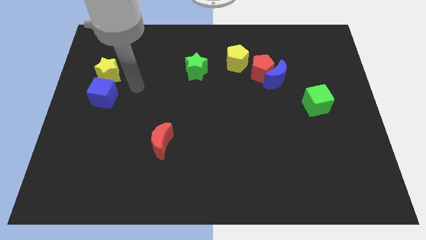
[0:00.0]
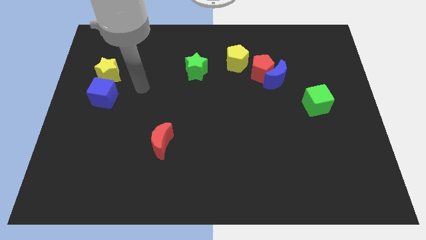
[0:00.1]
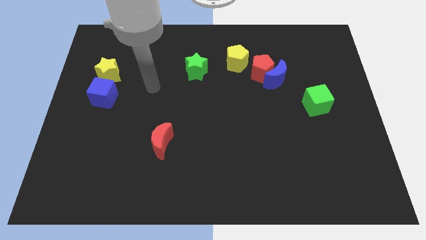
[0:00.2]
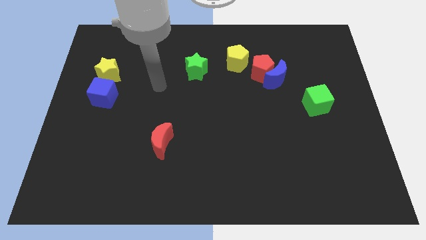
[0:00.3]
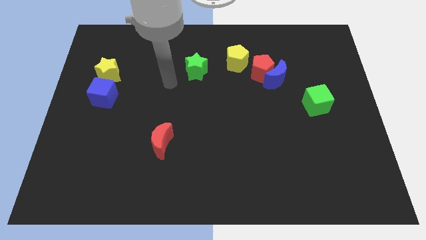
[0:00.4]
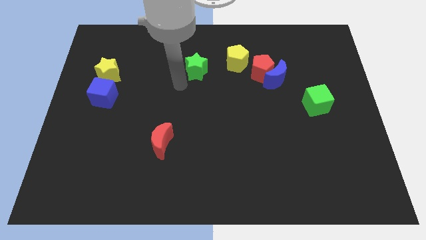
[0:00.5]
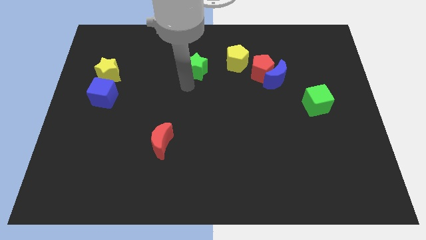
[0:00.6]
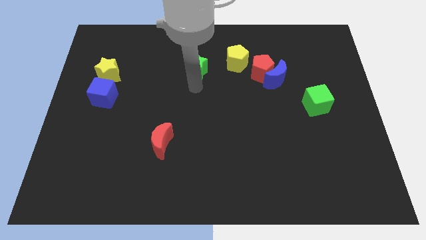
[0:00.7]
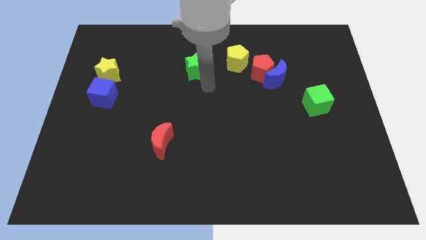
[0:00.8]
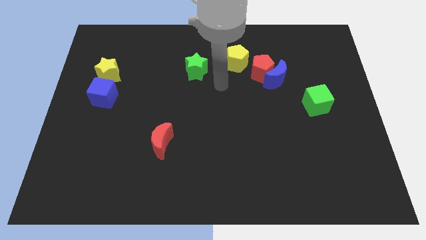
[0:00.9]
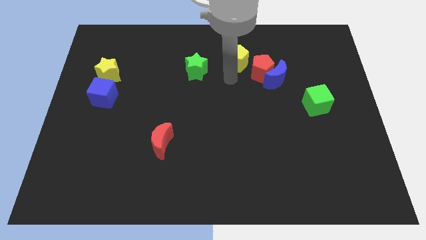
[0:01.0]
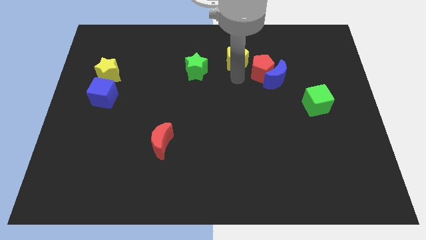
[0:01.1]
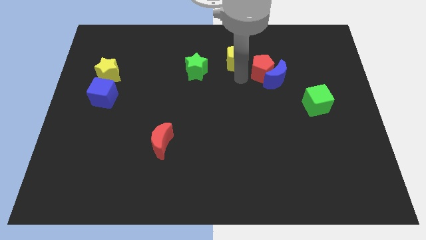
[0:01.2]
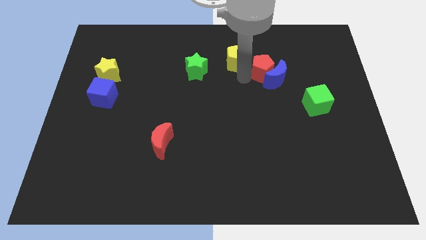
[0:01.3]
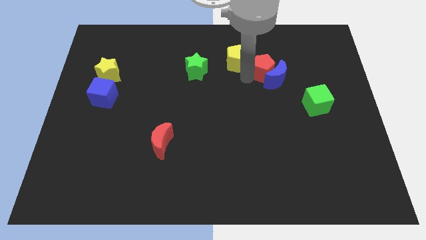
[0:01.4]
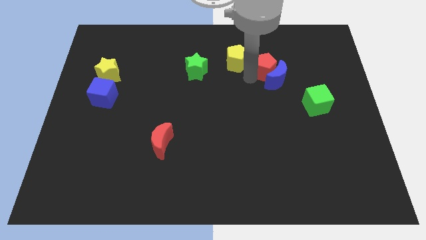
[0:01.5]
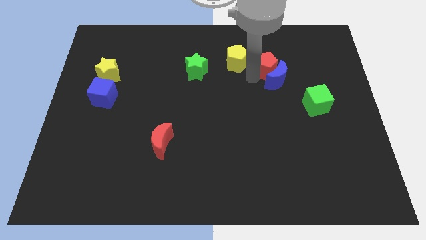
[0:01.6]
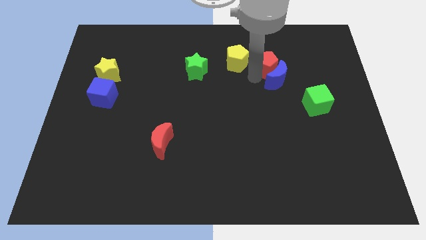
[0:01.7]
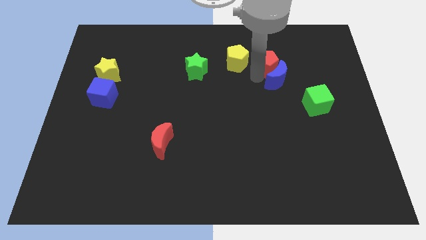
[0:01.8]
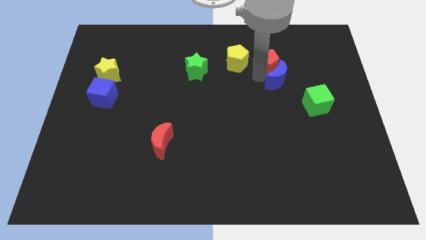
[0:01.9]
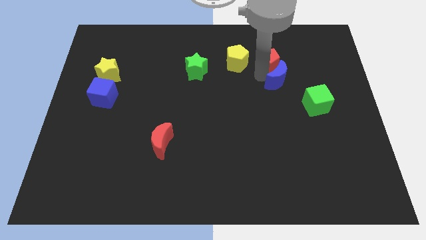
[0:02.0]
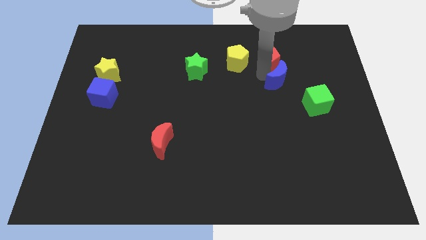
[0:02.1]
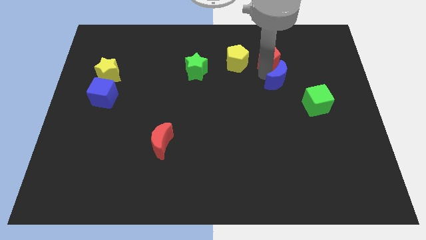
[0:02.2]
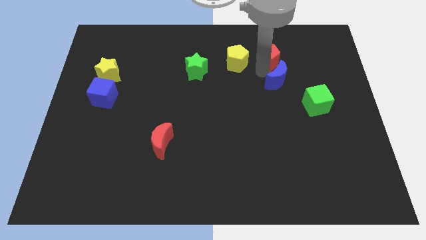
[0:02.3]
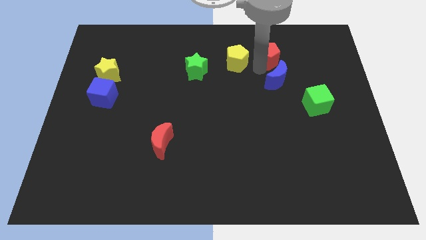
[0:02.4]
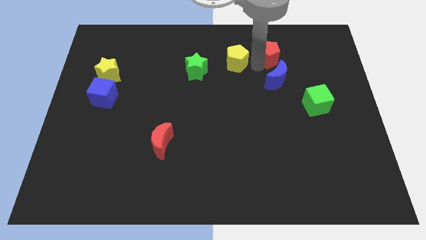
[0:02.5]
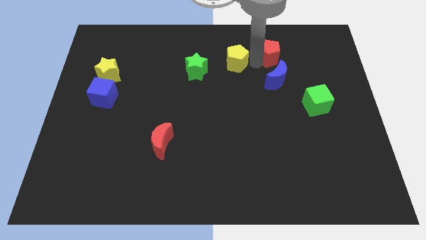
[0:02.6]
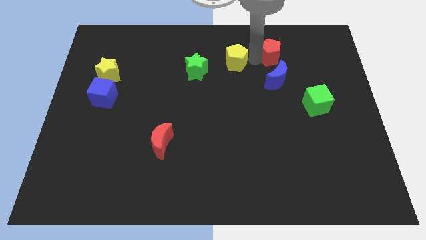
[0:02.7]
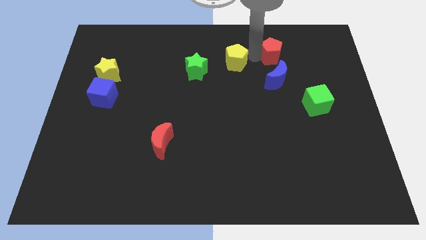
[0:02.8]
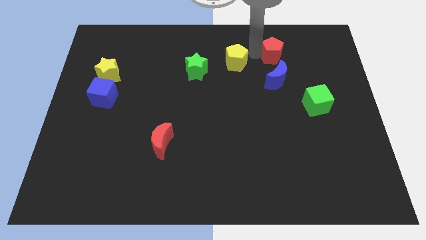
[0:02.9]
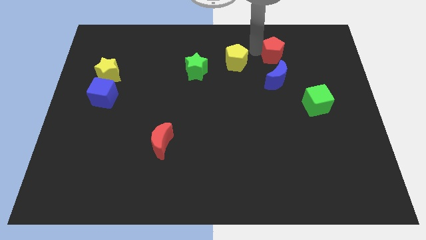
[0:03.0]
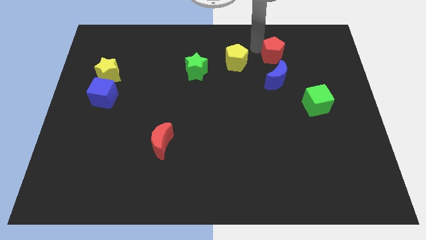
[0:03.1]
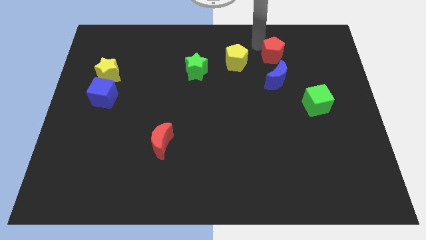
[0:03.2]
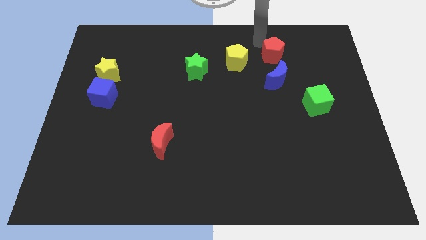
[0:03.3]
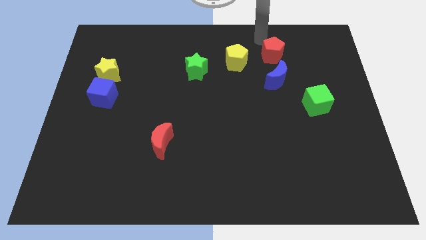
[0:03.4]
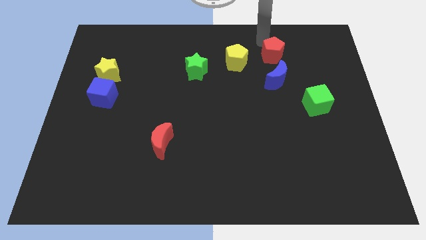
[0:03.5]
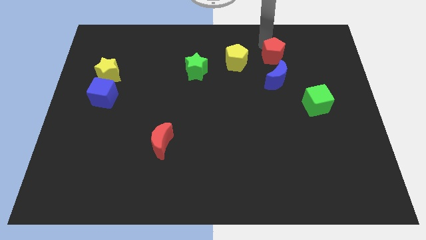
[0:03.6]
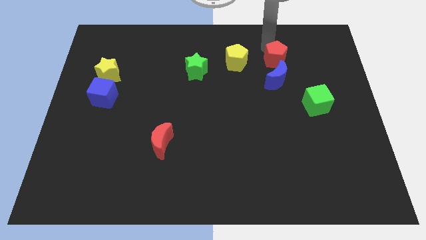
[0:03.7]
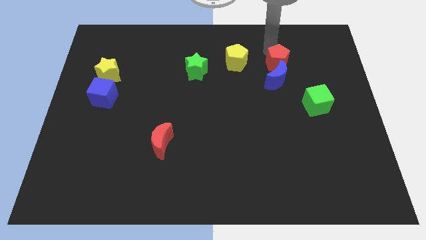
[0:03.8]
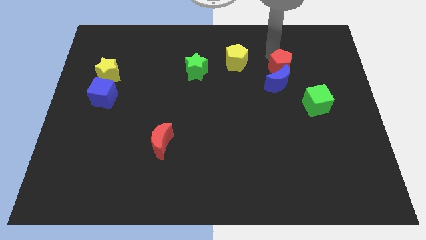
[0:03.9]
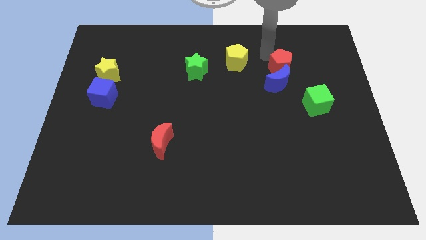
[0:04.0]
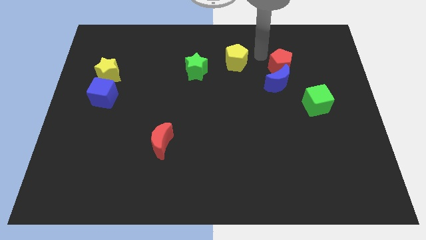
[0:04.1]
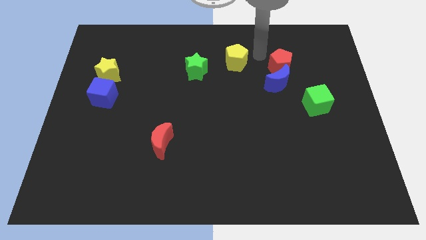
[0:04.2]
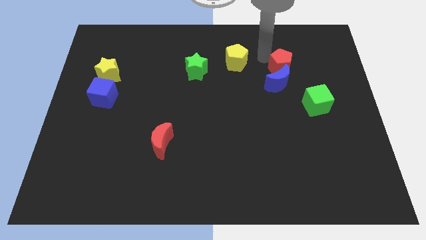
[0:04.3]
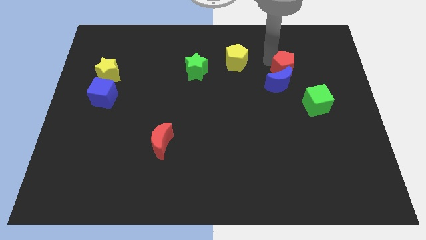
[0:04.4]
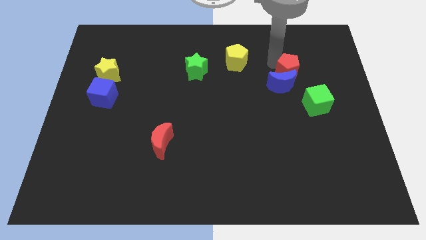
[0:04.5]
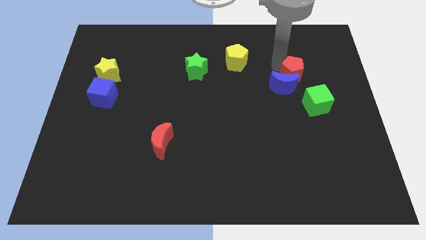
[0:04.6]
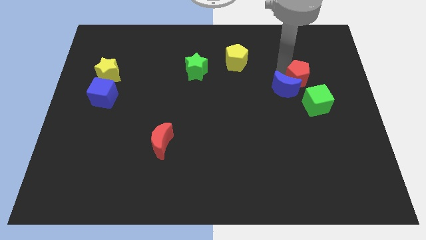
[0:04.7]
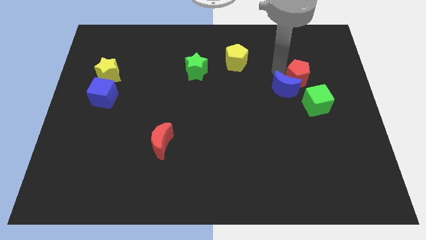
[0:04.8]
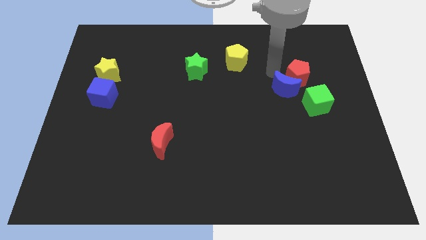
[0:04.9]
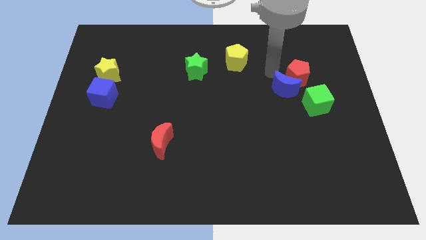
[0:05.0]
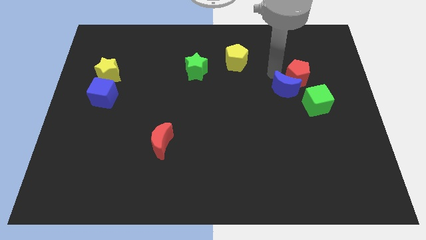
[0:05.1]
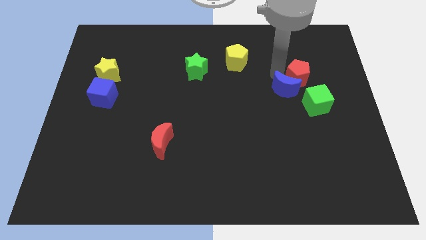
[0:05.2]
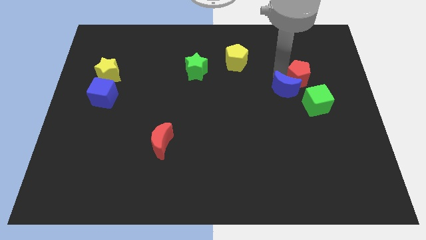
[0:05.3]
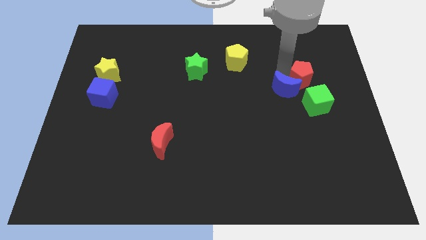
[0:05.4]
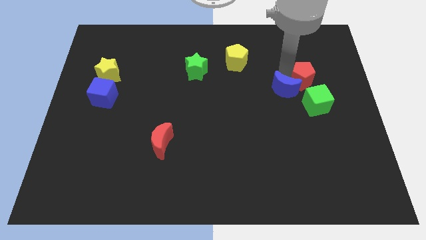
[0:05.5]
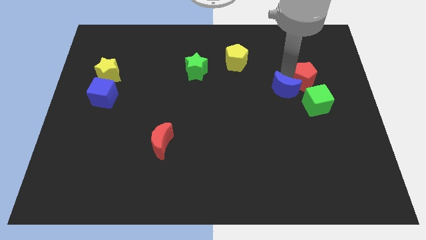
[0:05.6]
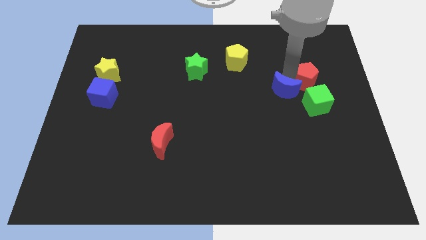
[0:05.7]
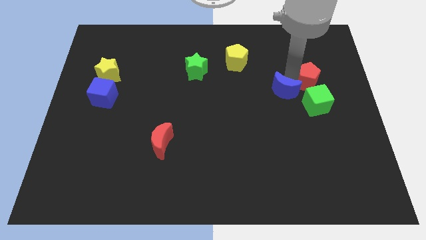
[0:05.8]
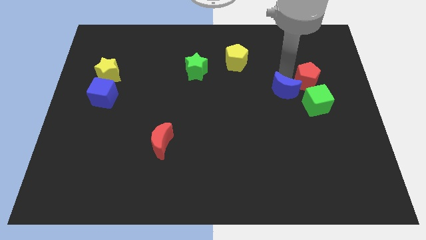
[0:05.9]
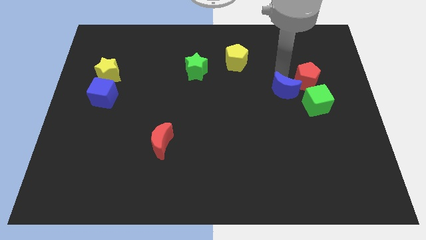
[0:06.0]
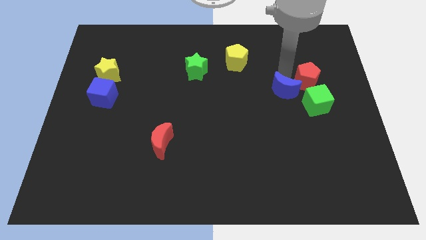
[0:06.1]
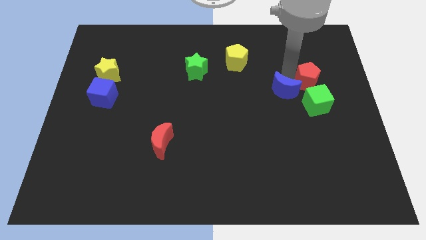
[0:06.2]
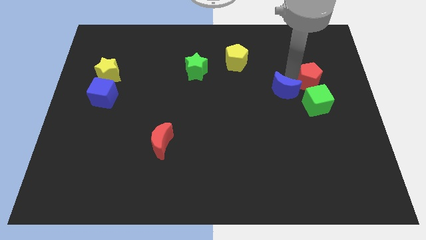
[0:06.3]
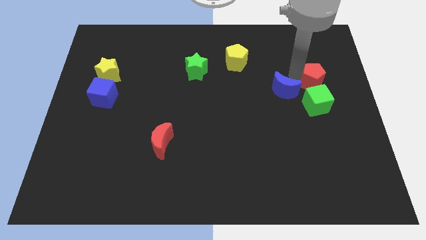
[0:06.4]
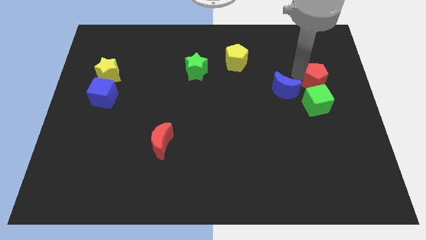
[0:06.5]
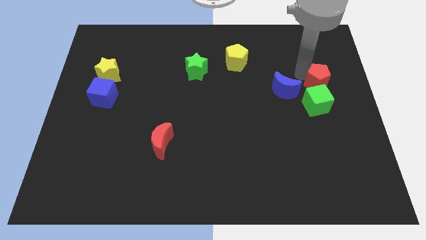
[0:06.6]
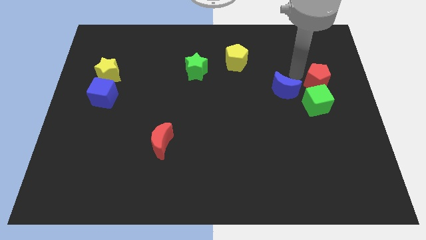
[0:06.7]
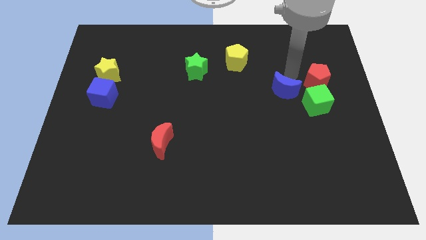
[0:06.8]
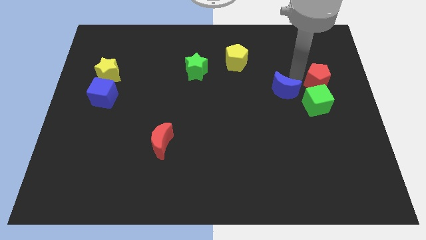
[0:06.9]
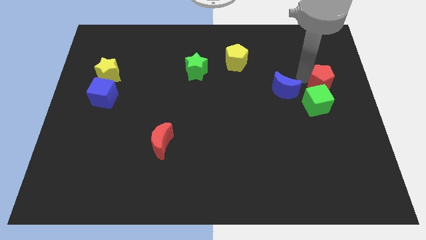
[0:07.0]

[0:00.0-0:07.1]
push the red pentagon to the right side of the board
